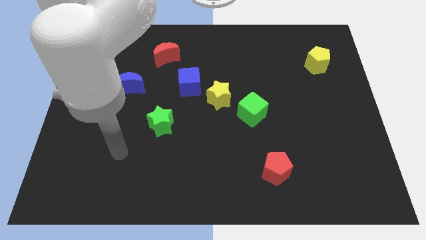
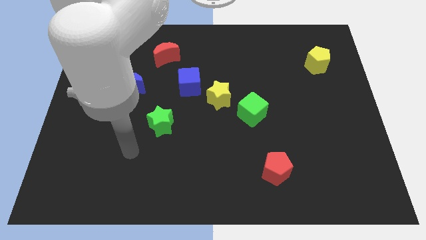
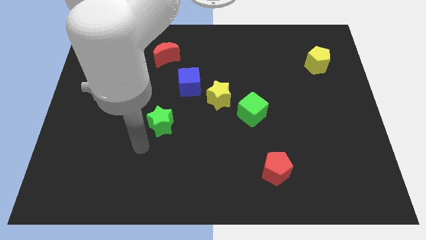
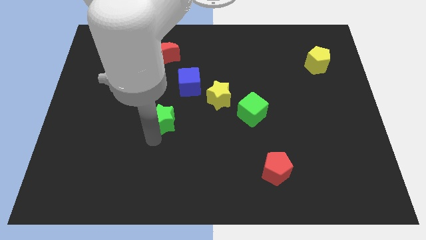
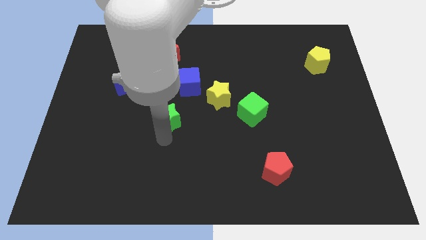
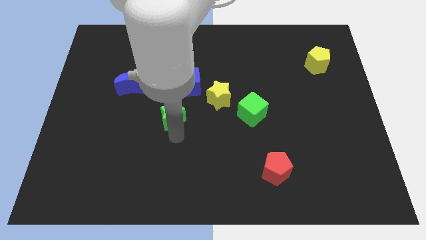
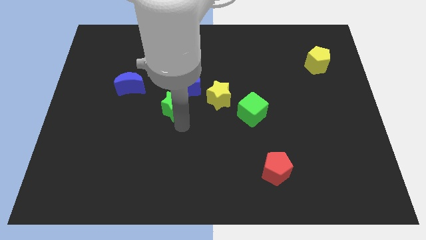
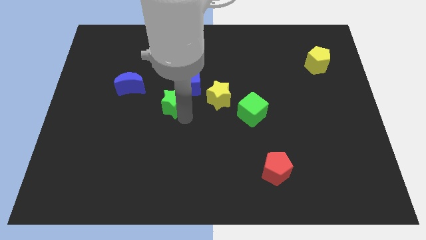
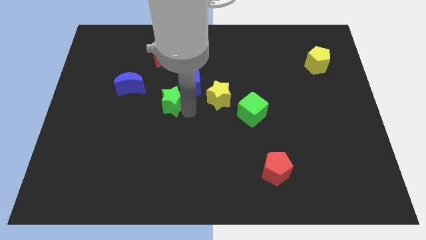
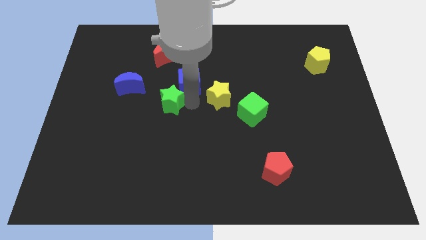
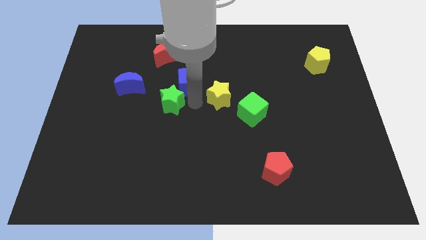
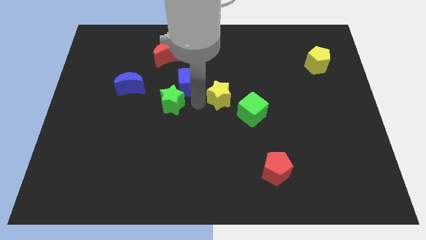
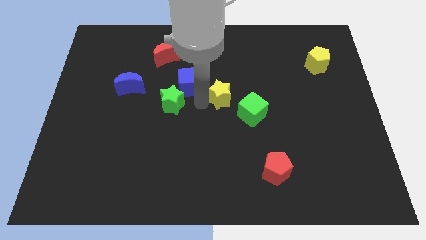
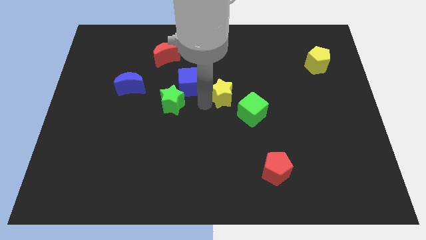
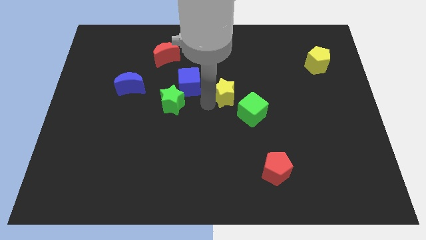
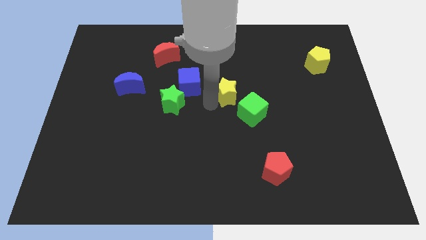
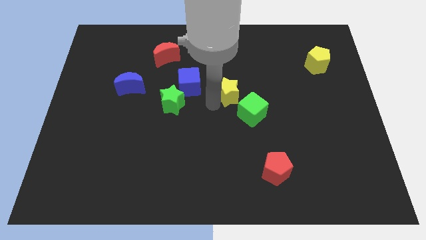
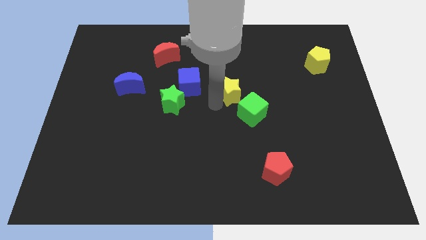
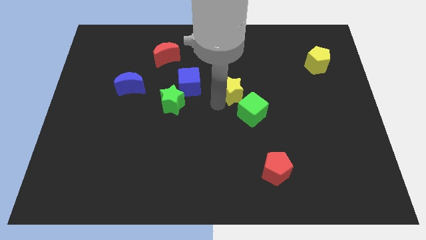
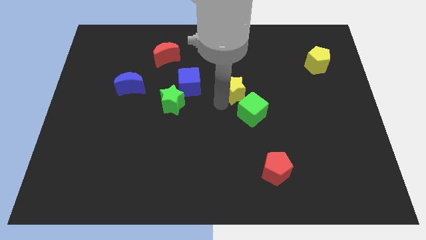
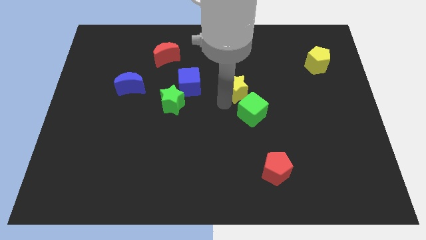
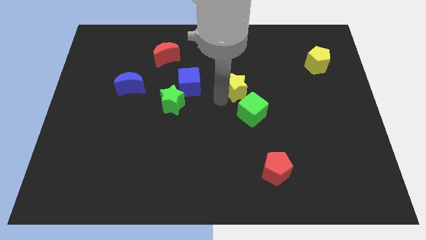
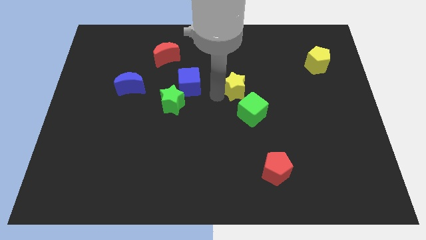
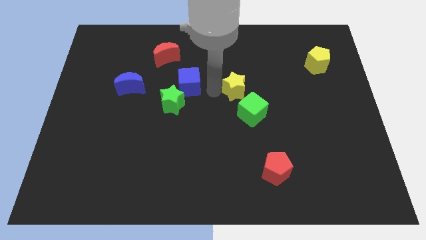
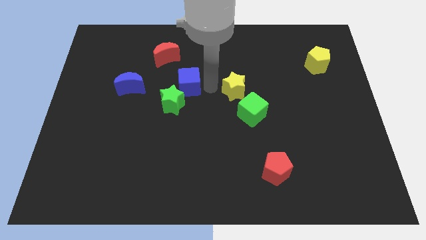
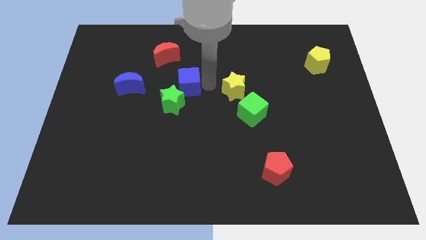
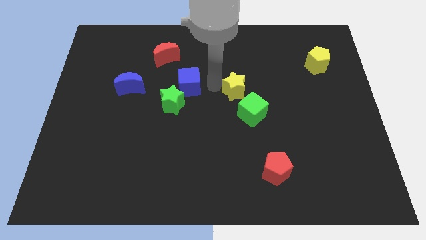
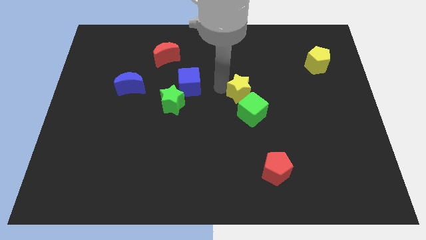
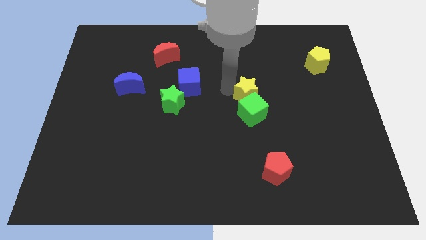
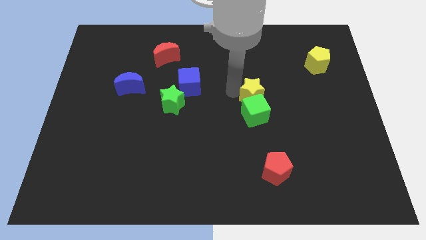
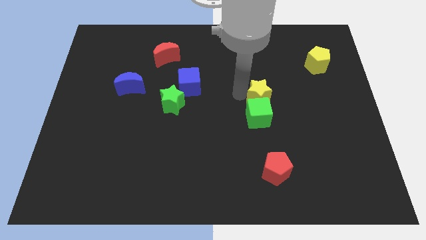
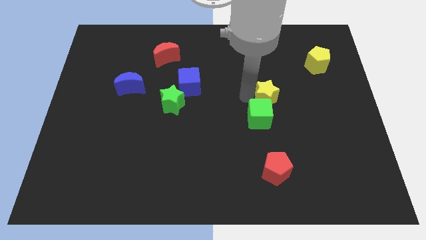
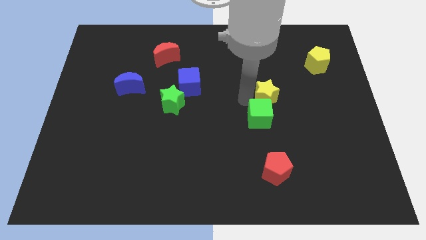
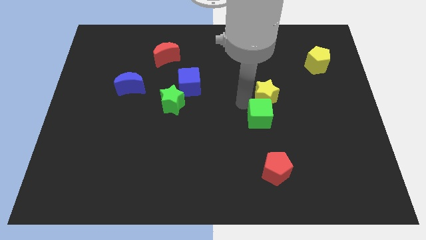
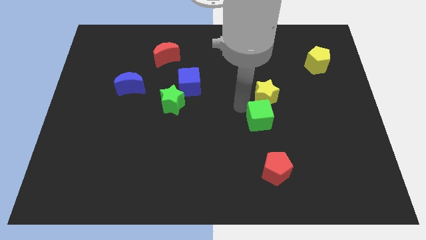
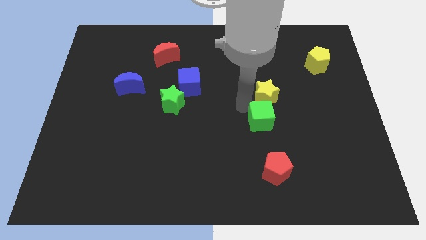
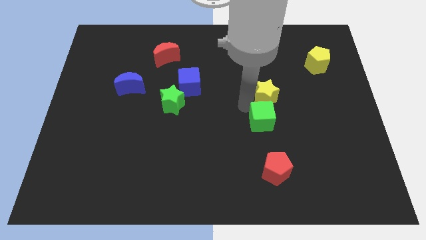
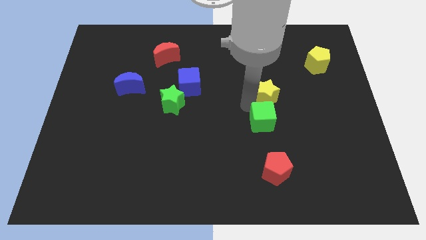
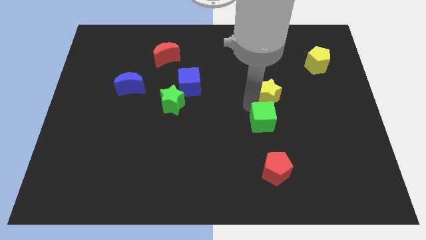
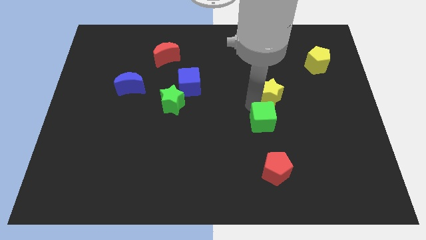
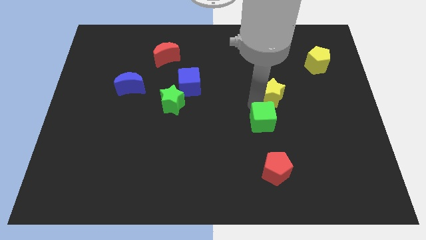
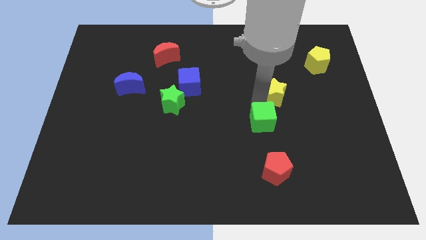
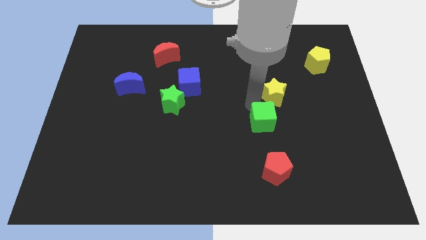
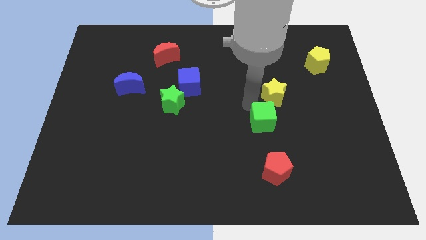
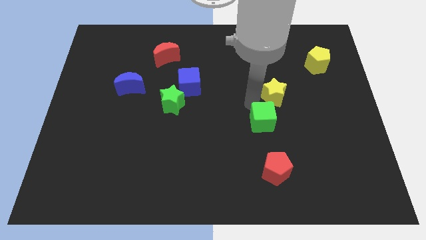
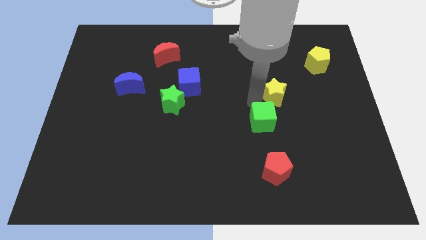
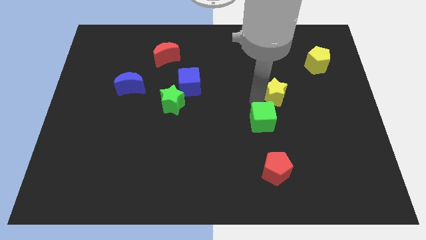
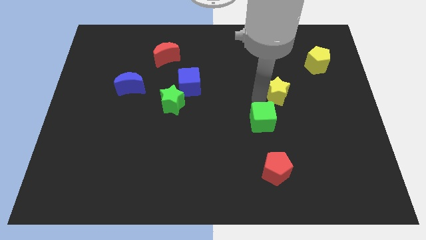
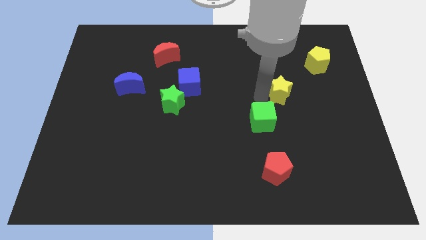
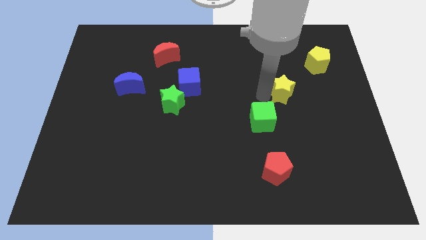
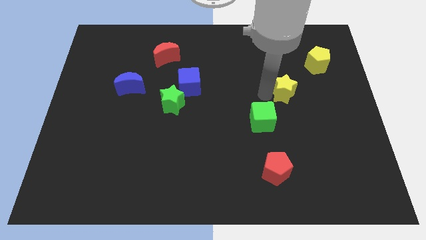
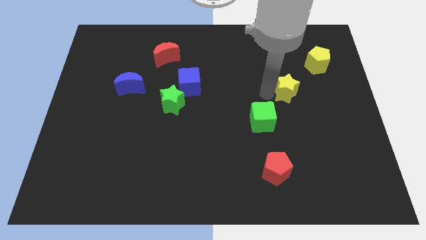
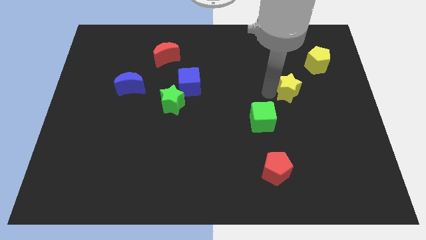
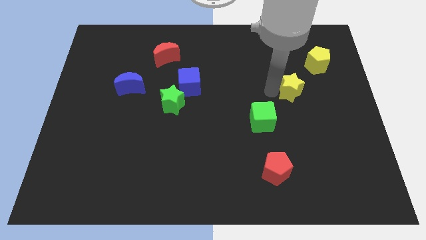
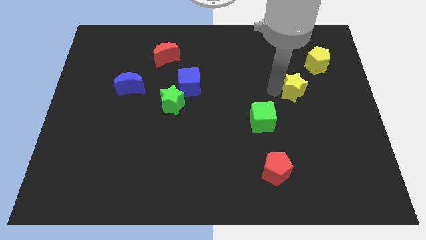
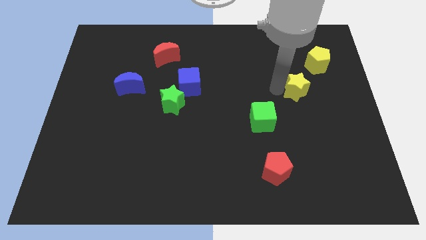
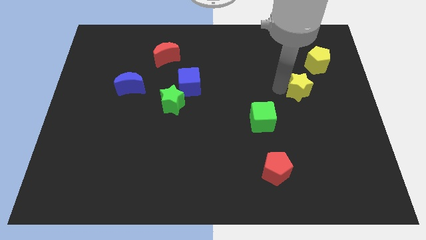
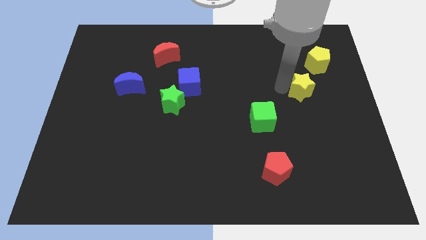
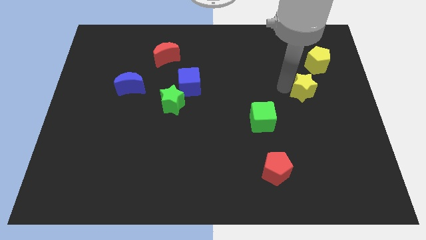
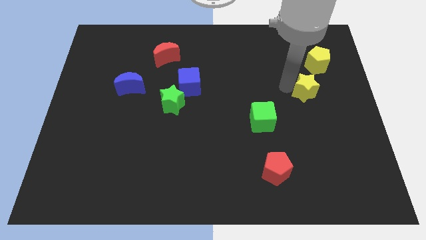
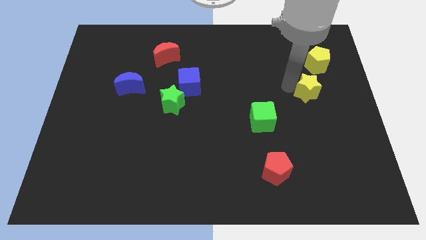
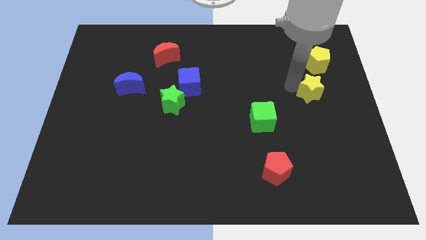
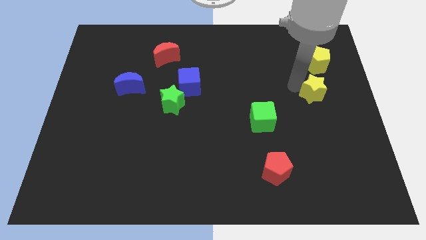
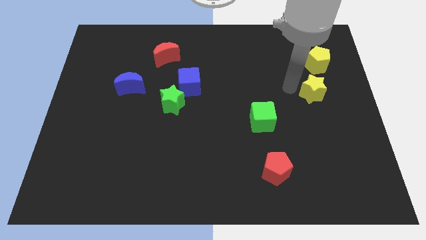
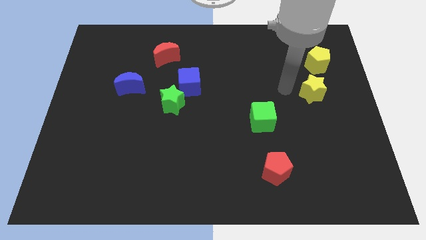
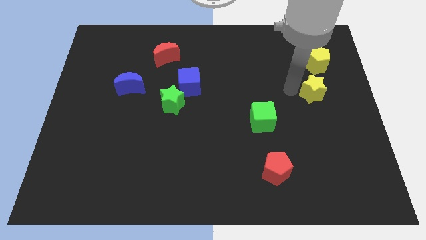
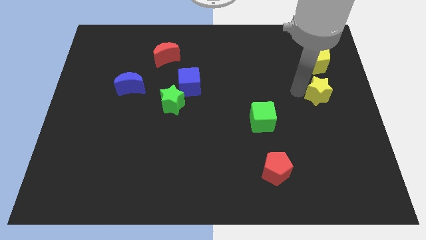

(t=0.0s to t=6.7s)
move the yellow star to the center right
